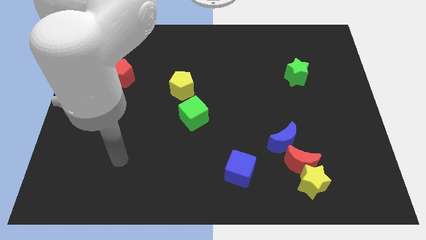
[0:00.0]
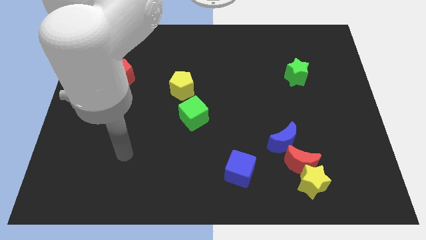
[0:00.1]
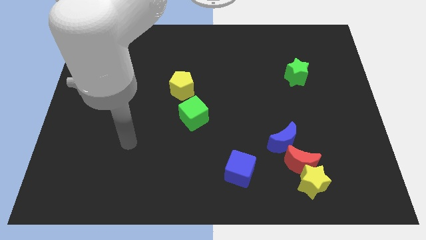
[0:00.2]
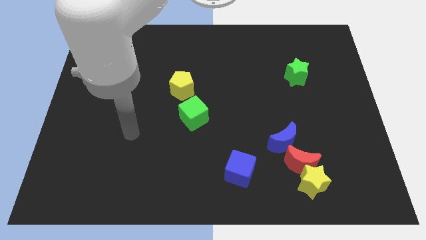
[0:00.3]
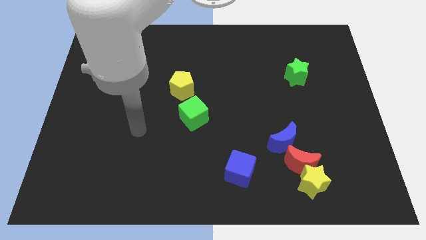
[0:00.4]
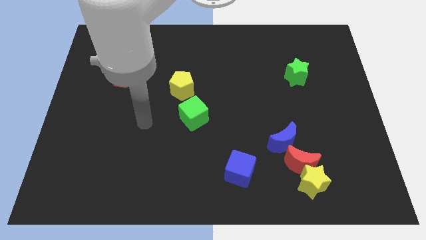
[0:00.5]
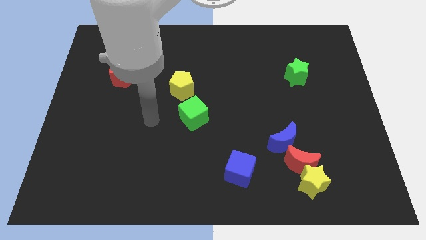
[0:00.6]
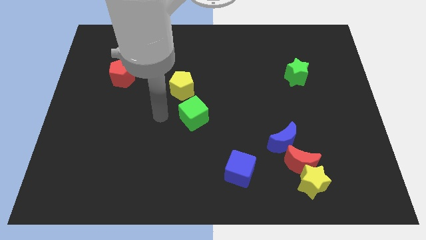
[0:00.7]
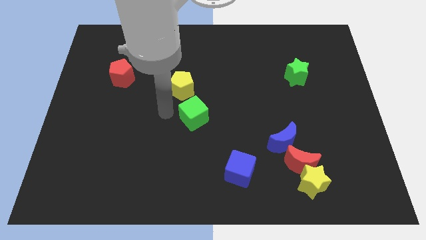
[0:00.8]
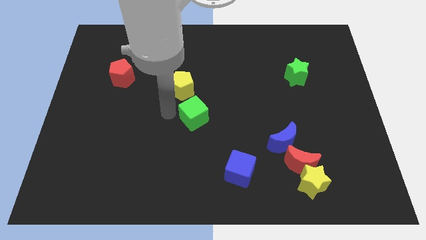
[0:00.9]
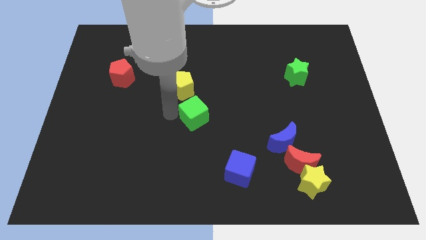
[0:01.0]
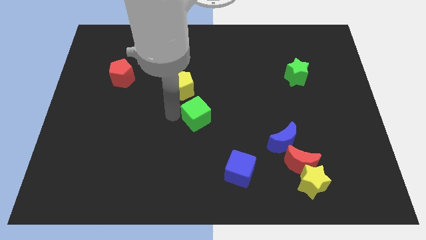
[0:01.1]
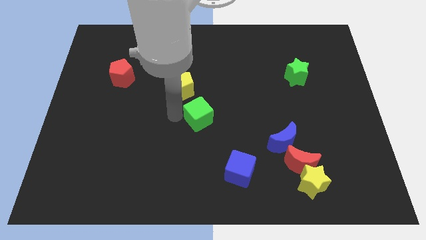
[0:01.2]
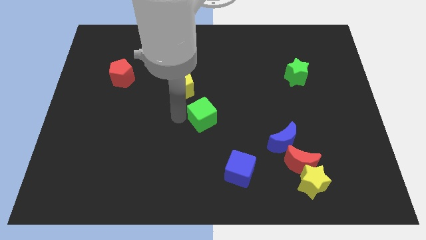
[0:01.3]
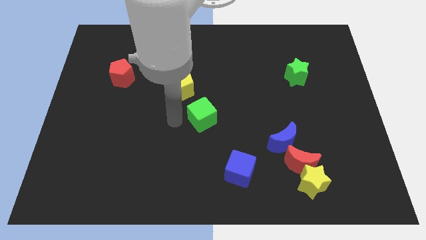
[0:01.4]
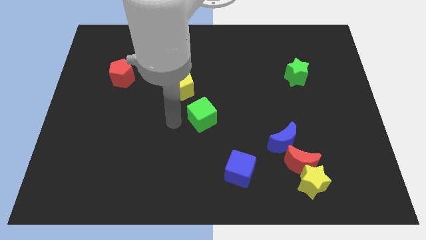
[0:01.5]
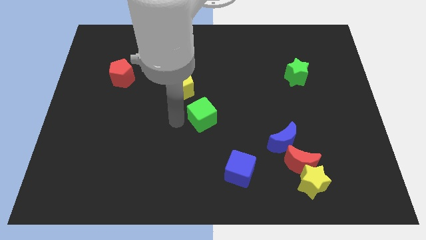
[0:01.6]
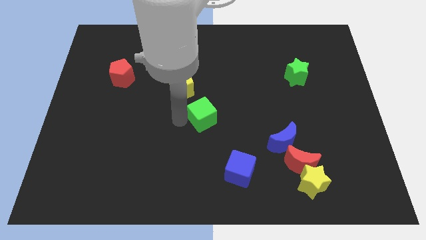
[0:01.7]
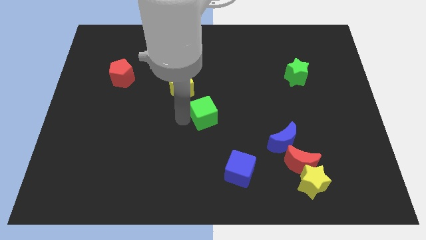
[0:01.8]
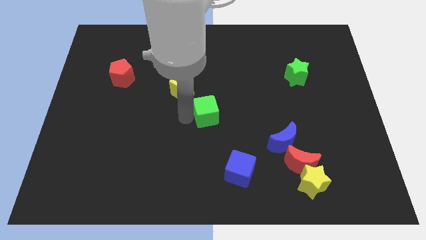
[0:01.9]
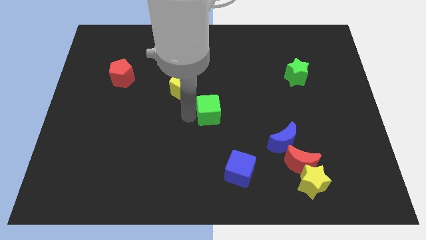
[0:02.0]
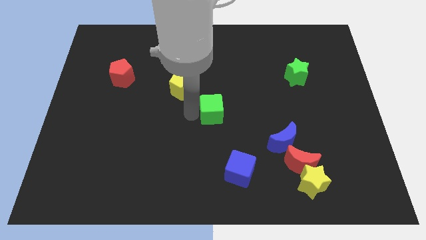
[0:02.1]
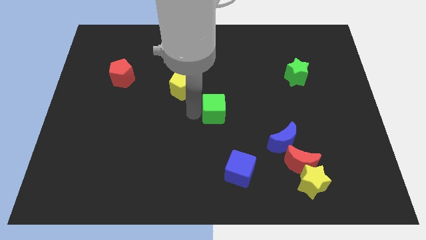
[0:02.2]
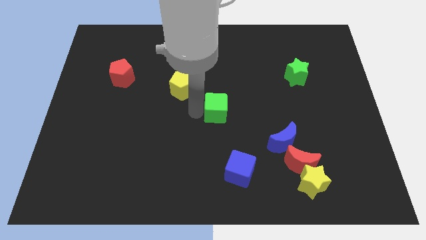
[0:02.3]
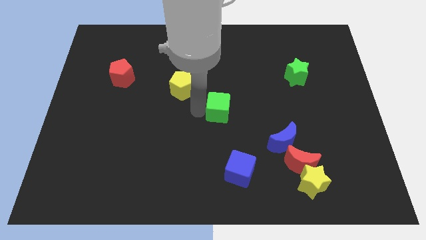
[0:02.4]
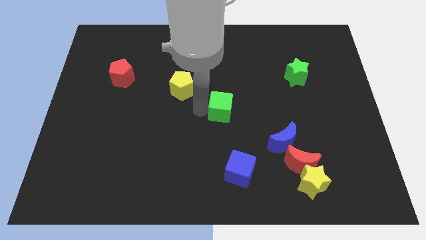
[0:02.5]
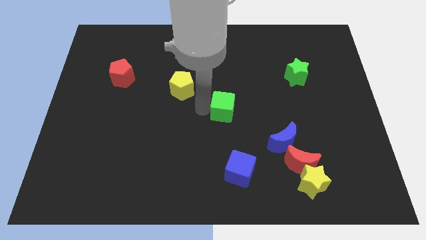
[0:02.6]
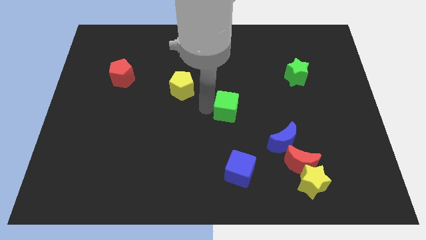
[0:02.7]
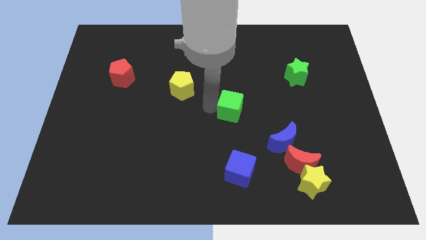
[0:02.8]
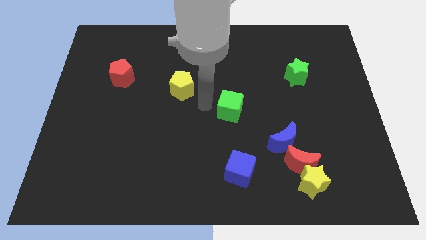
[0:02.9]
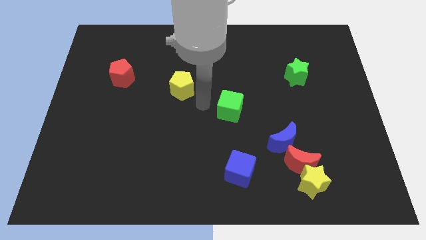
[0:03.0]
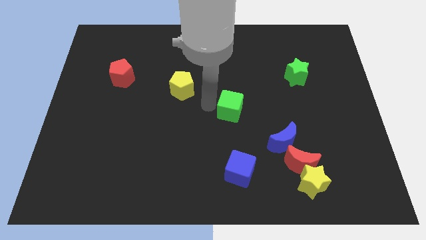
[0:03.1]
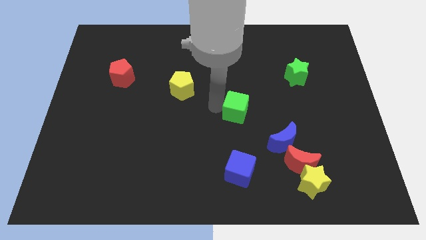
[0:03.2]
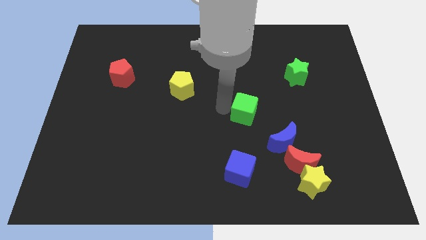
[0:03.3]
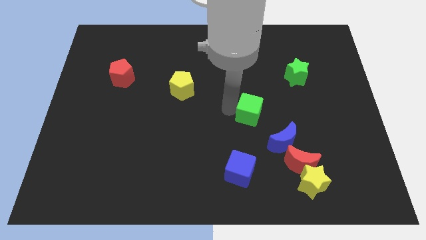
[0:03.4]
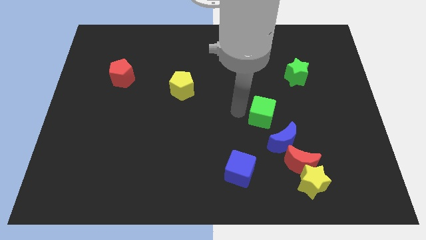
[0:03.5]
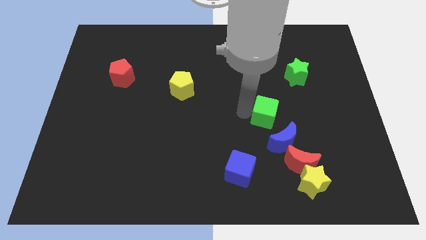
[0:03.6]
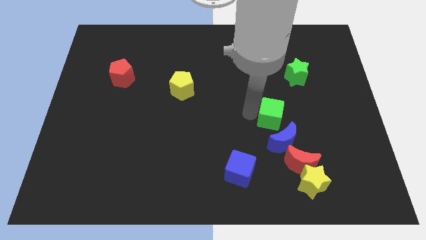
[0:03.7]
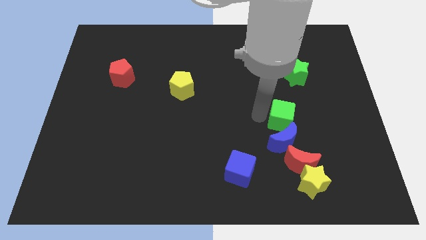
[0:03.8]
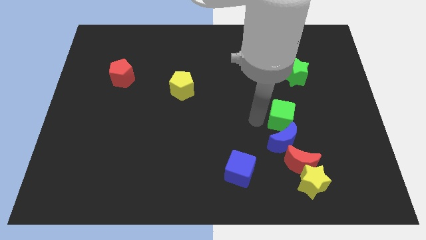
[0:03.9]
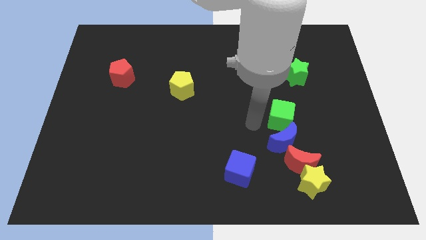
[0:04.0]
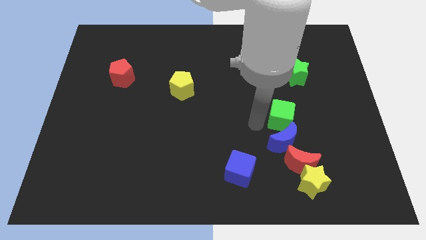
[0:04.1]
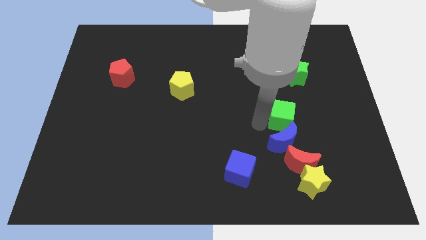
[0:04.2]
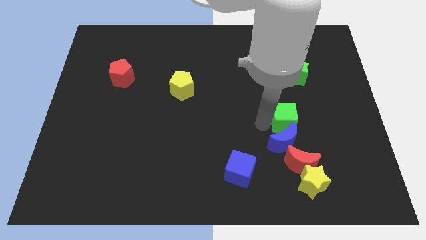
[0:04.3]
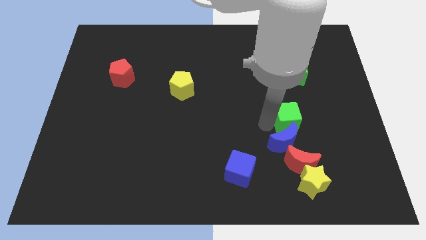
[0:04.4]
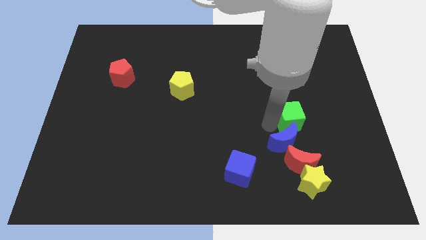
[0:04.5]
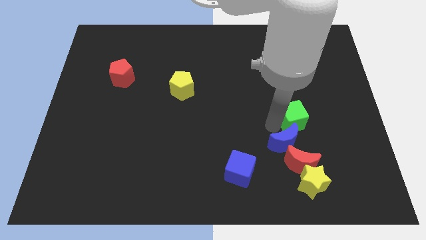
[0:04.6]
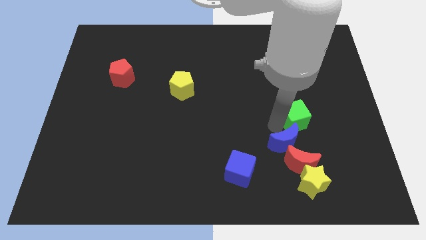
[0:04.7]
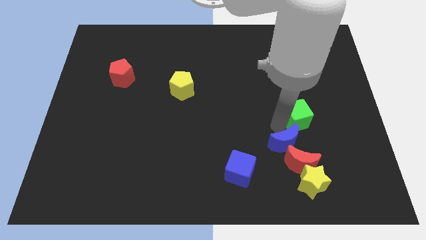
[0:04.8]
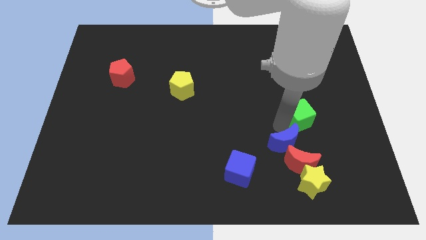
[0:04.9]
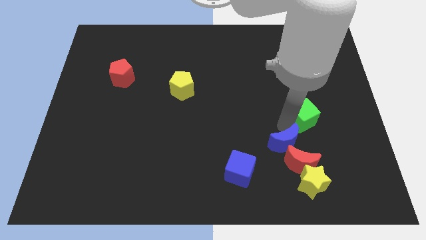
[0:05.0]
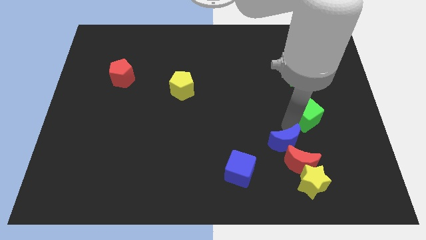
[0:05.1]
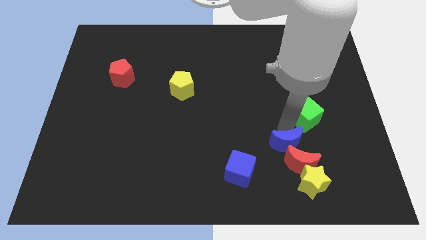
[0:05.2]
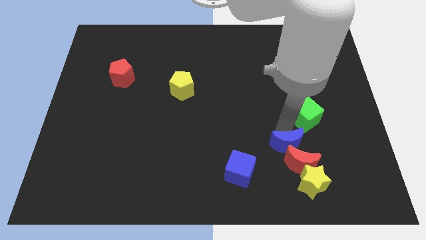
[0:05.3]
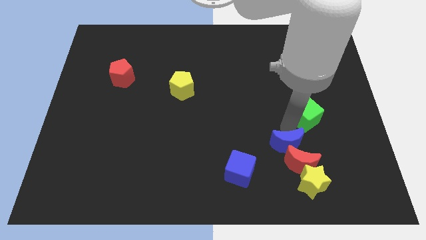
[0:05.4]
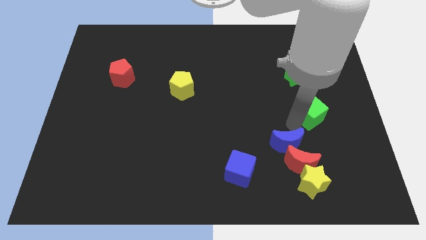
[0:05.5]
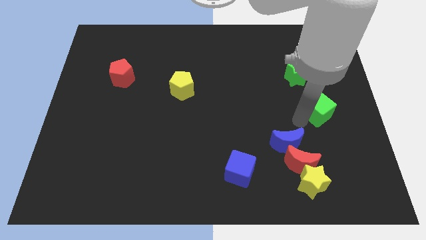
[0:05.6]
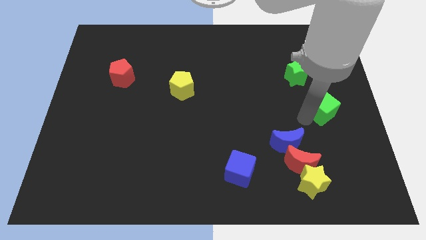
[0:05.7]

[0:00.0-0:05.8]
push the green cube to the right side

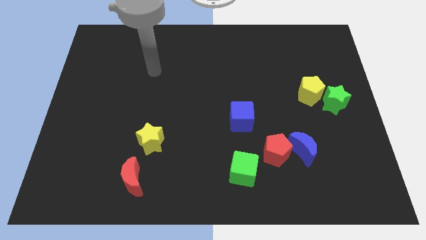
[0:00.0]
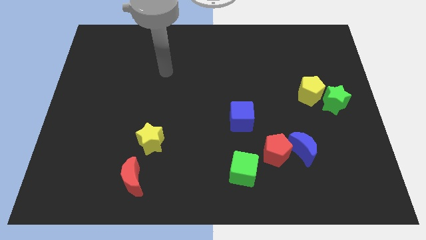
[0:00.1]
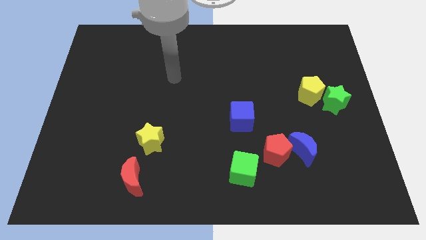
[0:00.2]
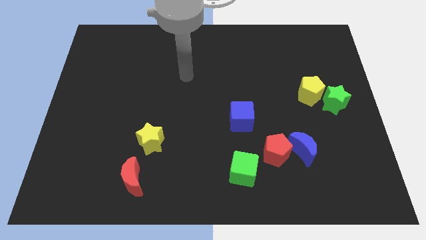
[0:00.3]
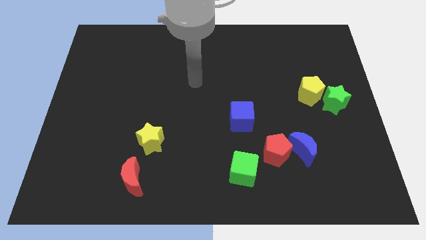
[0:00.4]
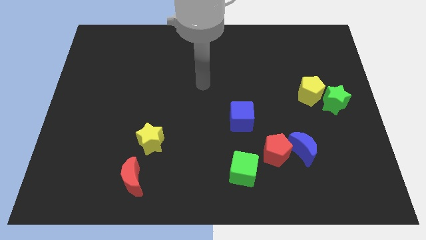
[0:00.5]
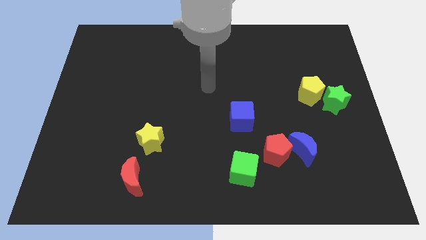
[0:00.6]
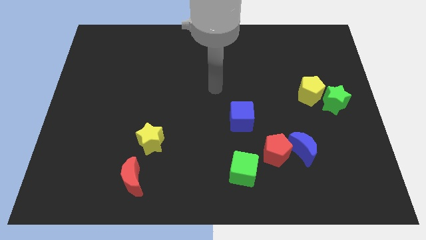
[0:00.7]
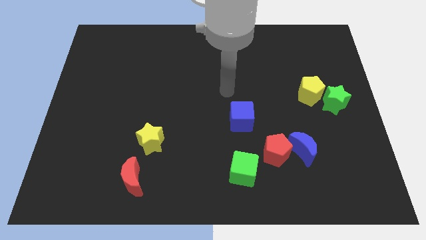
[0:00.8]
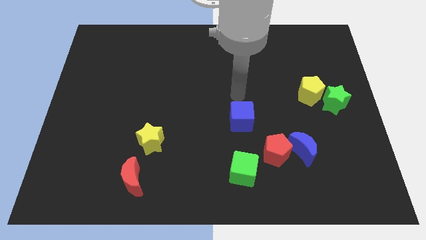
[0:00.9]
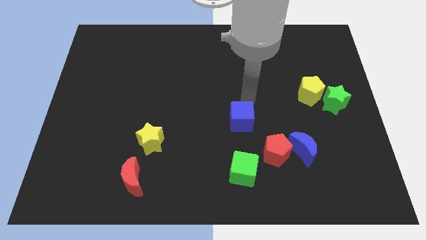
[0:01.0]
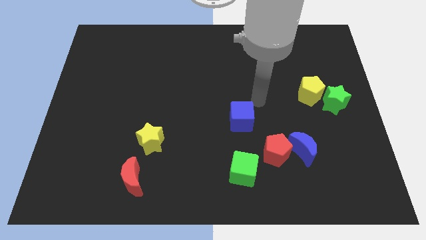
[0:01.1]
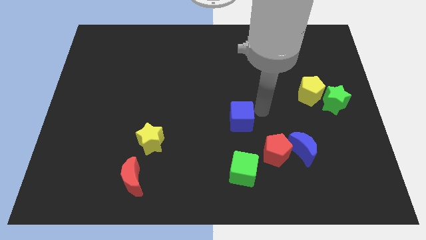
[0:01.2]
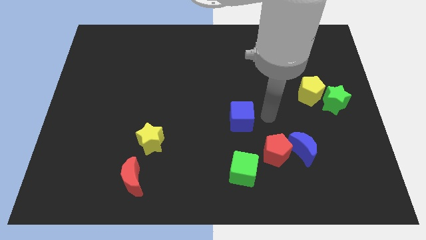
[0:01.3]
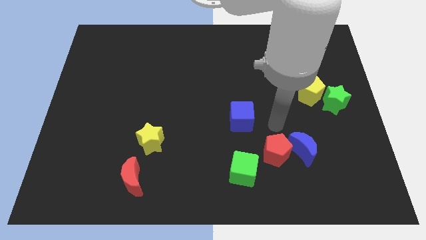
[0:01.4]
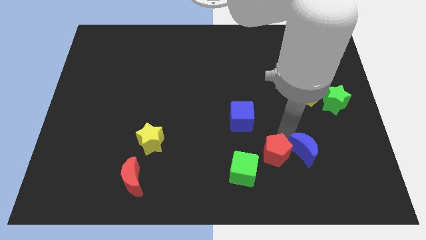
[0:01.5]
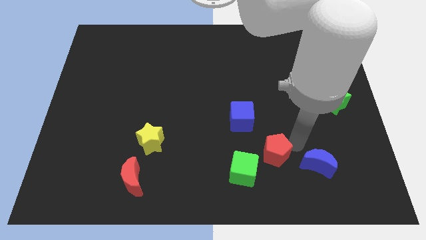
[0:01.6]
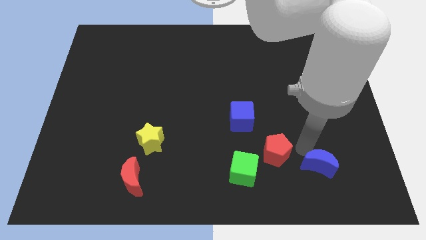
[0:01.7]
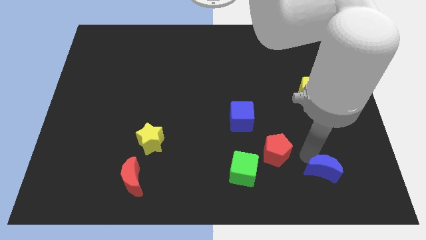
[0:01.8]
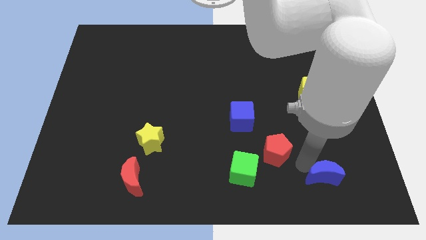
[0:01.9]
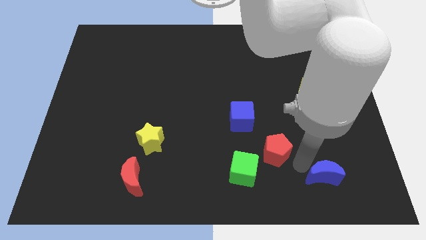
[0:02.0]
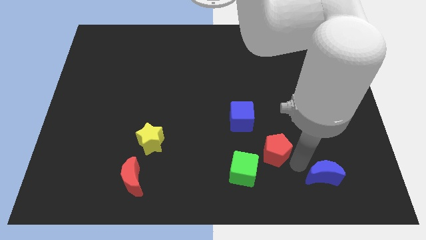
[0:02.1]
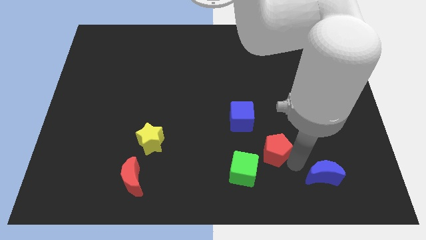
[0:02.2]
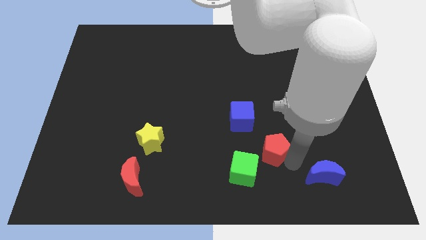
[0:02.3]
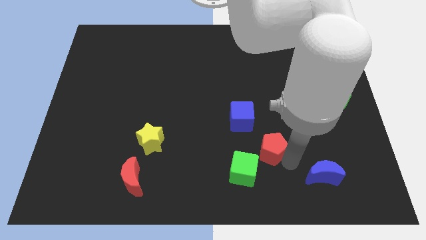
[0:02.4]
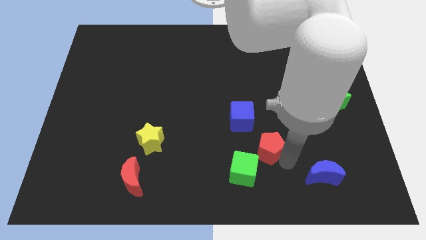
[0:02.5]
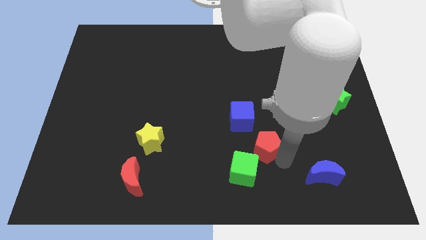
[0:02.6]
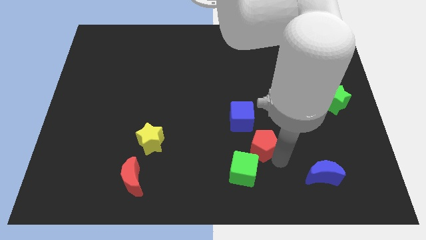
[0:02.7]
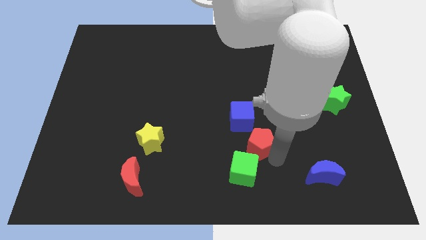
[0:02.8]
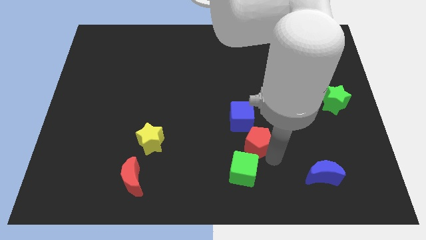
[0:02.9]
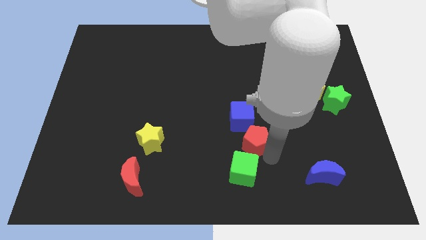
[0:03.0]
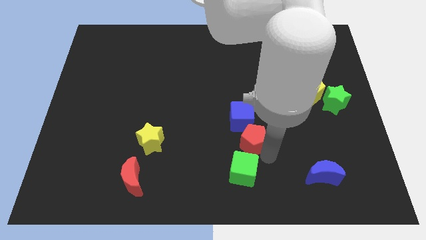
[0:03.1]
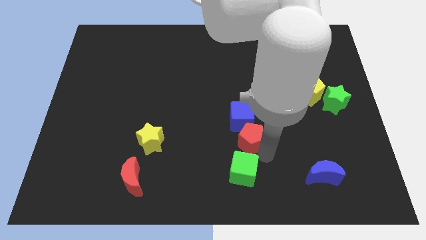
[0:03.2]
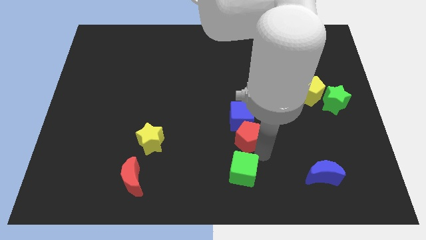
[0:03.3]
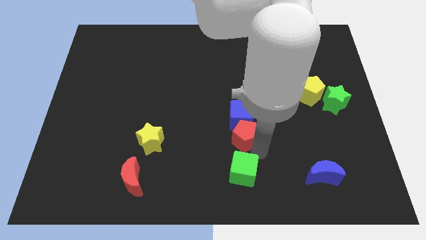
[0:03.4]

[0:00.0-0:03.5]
put the red pentagon to the middle
